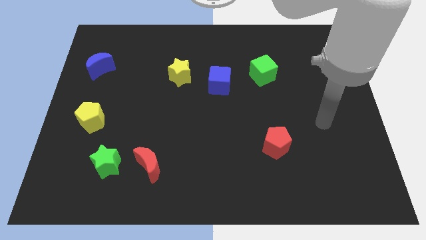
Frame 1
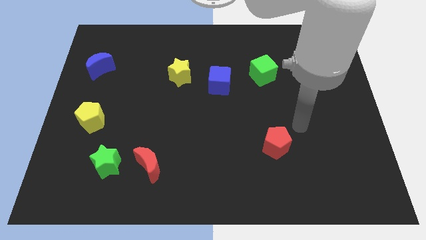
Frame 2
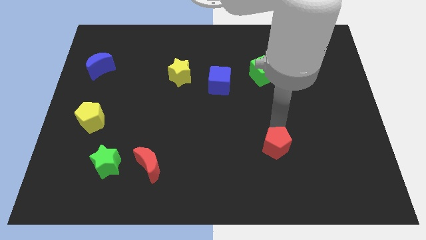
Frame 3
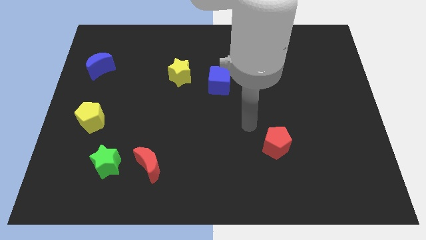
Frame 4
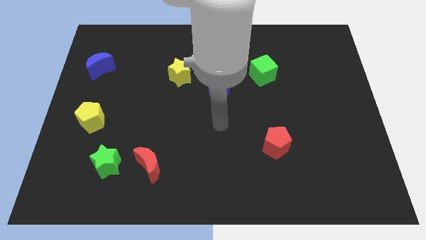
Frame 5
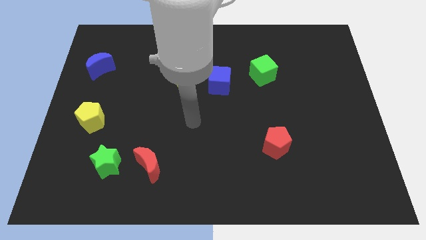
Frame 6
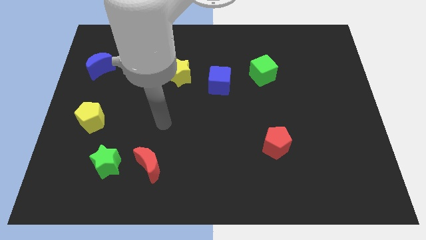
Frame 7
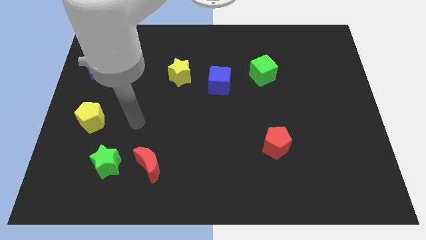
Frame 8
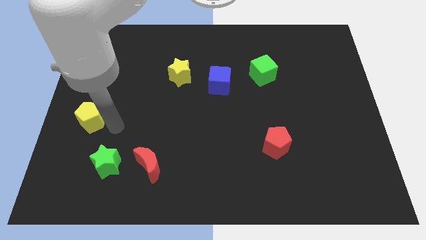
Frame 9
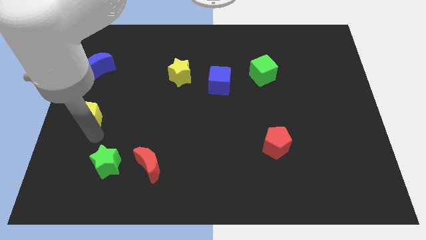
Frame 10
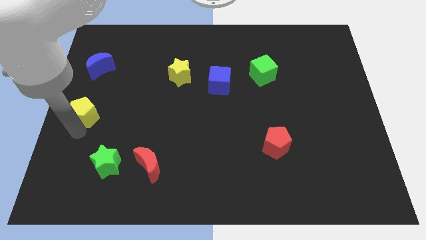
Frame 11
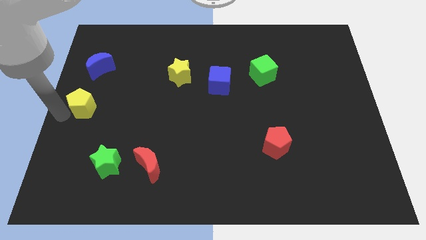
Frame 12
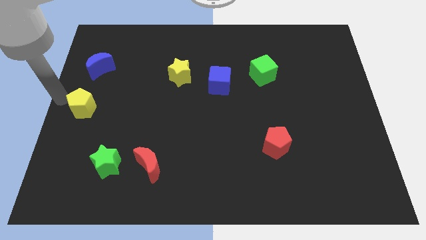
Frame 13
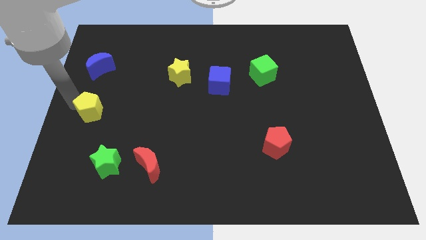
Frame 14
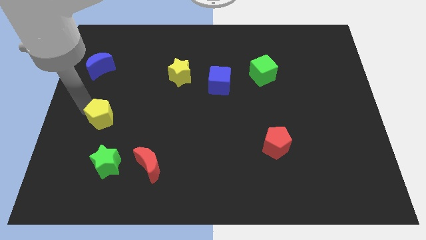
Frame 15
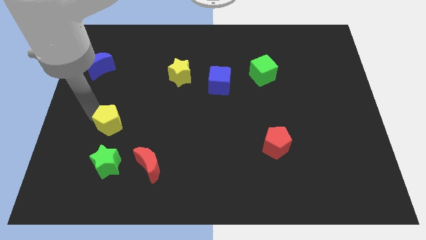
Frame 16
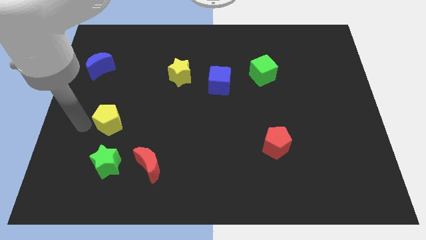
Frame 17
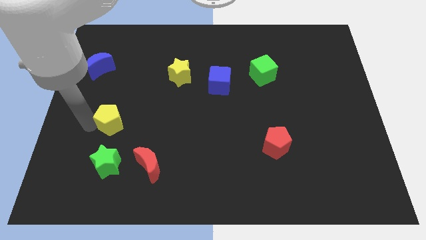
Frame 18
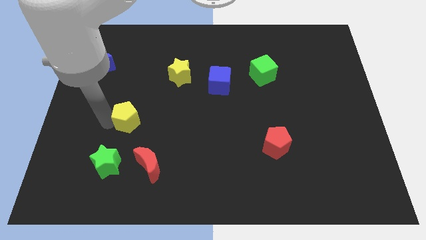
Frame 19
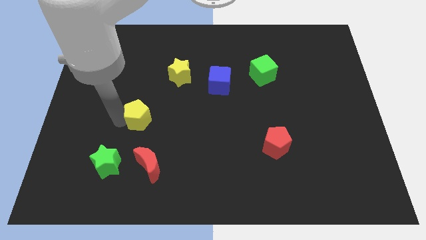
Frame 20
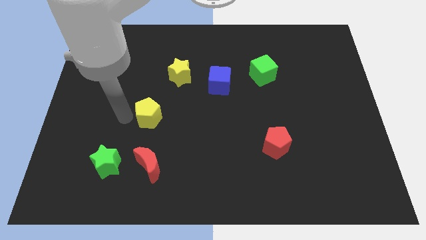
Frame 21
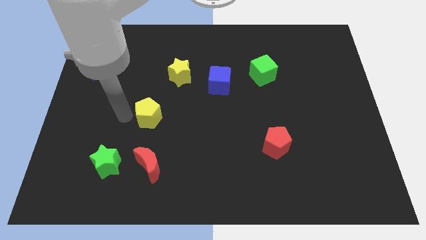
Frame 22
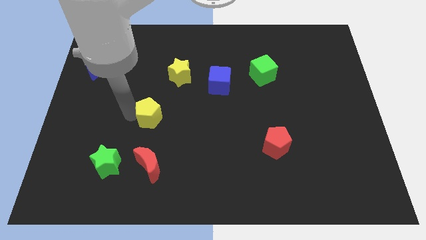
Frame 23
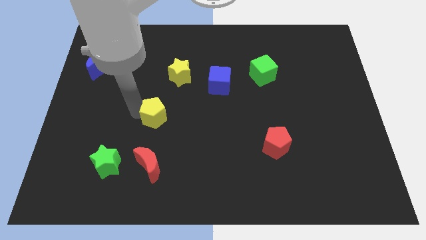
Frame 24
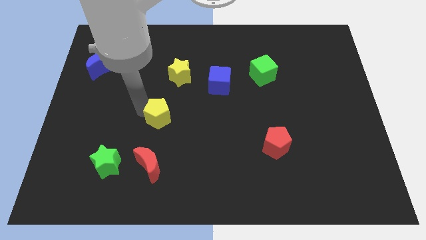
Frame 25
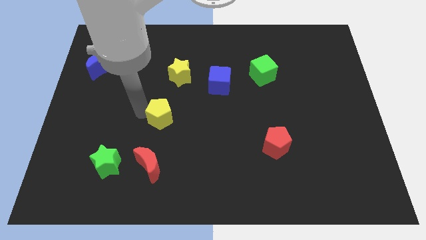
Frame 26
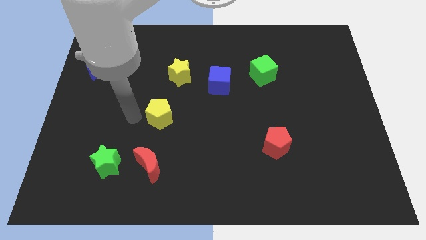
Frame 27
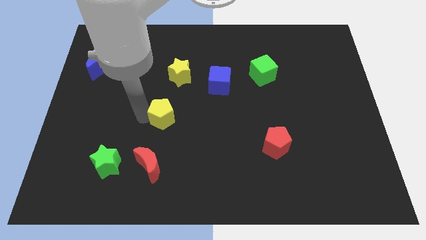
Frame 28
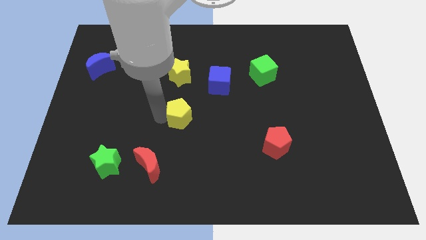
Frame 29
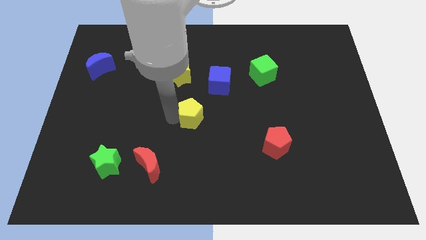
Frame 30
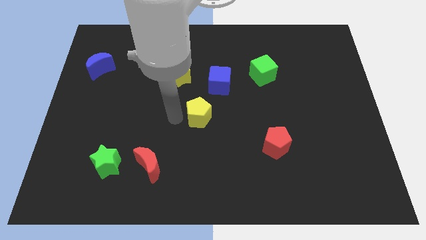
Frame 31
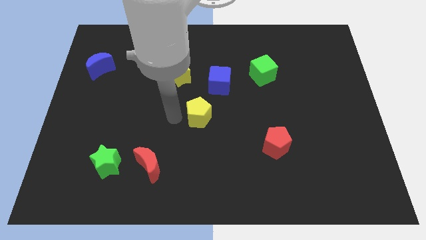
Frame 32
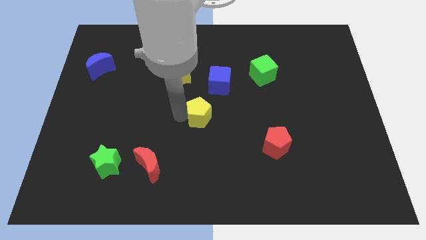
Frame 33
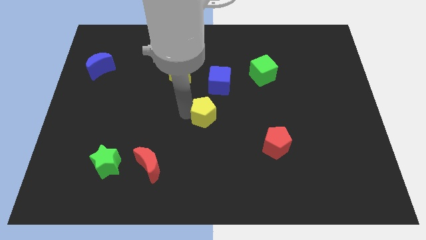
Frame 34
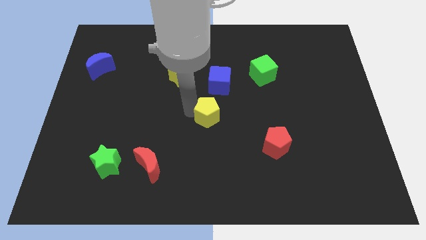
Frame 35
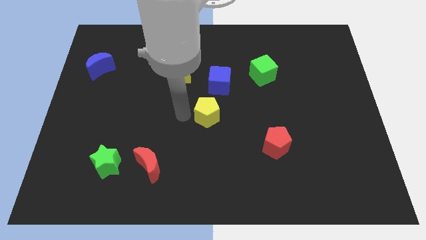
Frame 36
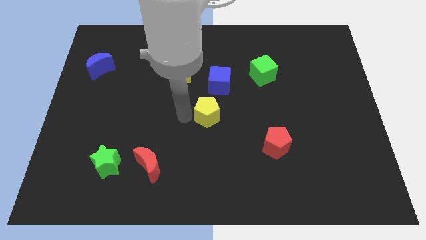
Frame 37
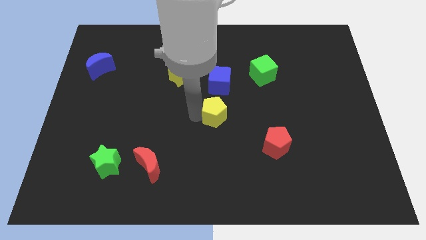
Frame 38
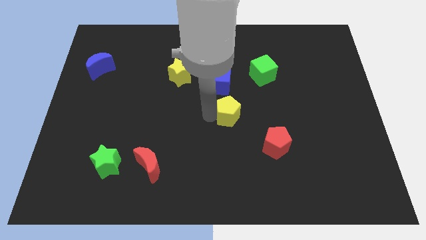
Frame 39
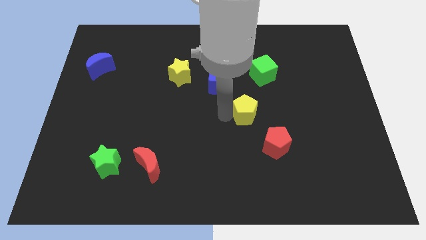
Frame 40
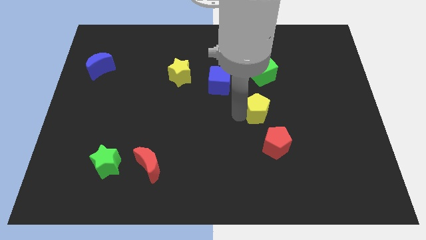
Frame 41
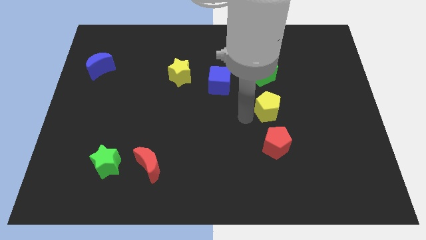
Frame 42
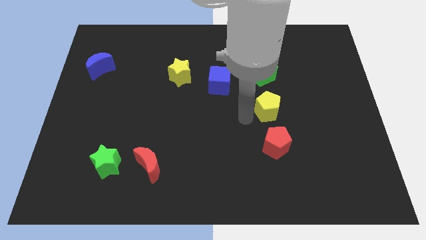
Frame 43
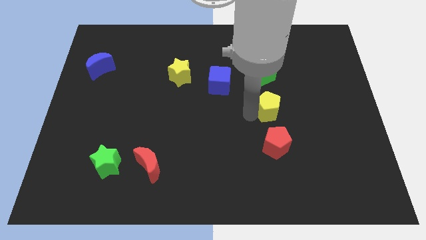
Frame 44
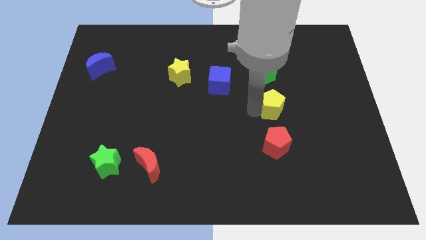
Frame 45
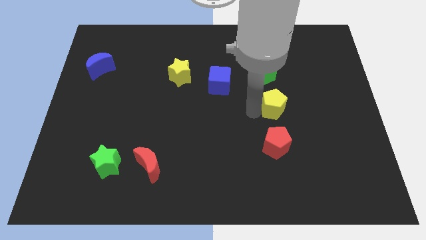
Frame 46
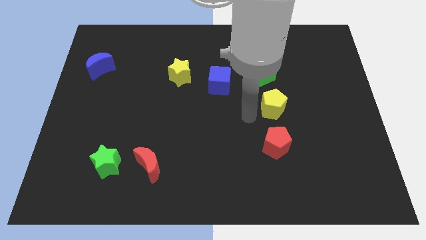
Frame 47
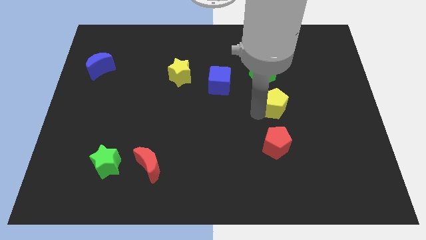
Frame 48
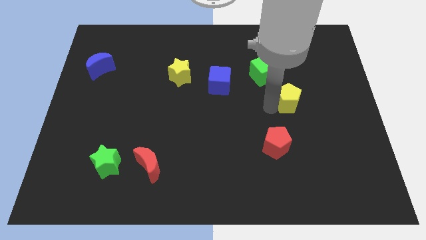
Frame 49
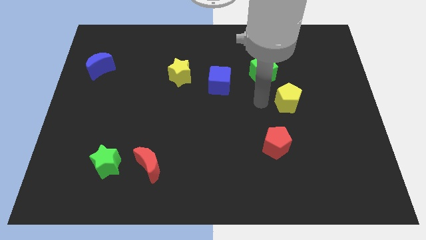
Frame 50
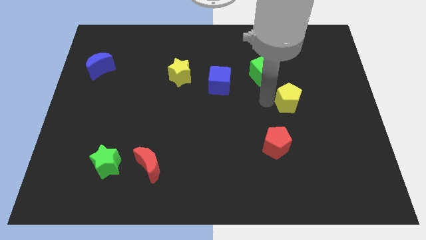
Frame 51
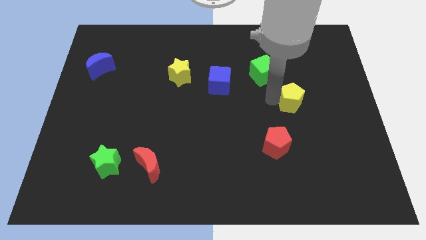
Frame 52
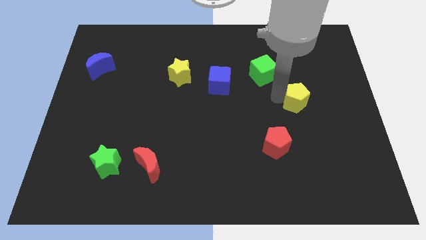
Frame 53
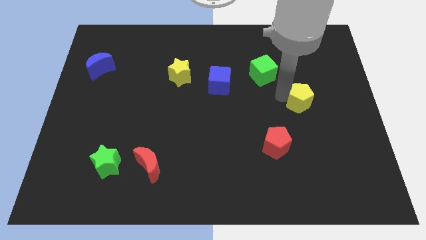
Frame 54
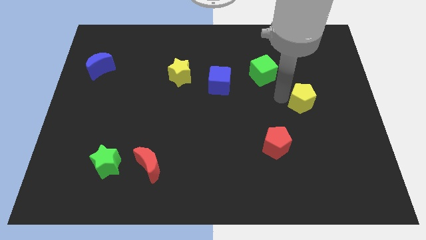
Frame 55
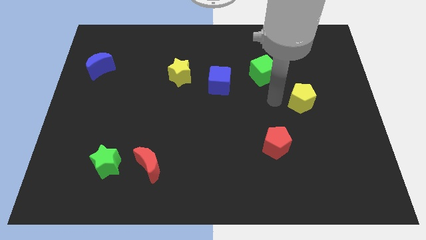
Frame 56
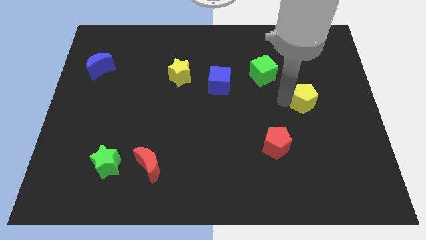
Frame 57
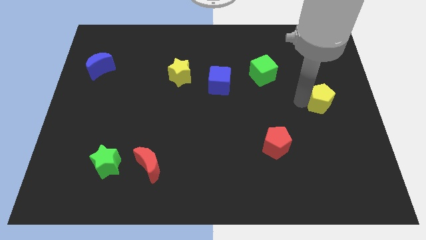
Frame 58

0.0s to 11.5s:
slide the yellow pentagon to the center right

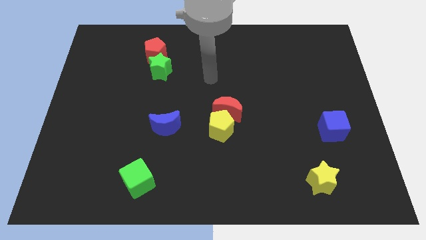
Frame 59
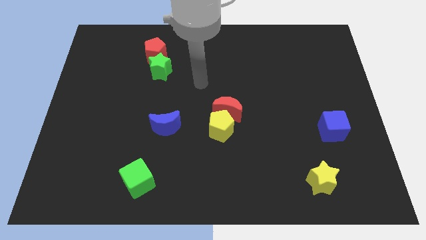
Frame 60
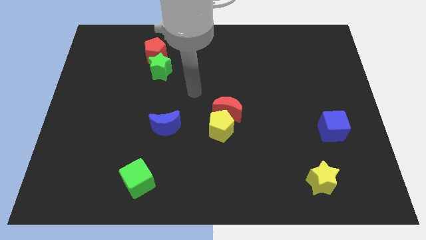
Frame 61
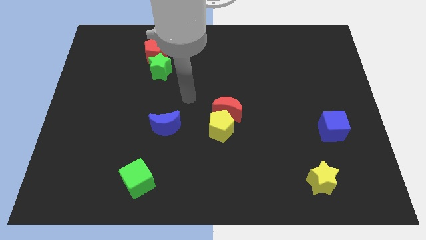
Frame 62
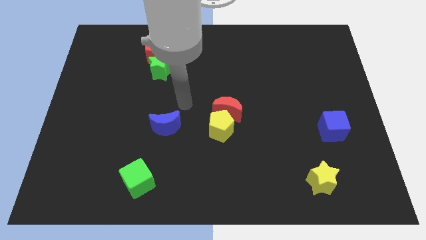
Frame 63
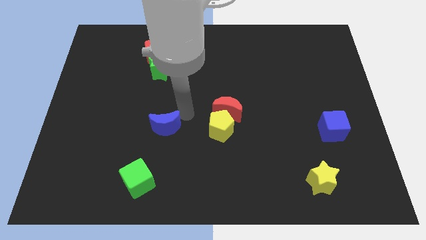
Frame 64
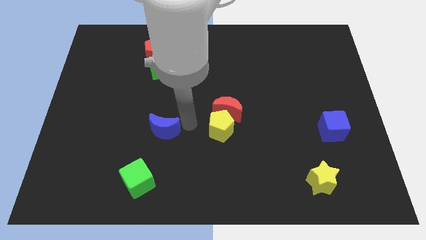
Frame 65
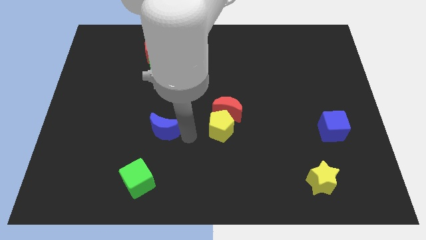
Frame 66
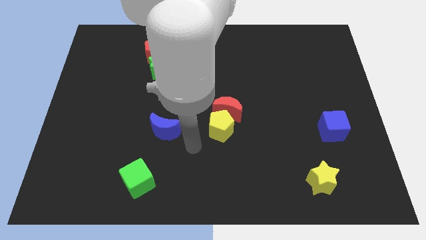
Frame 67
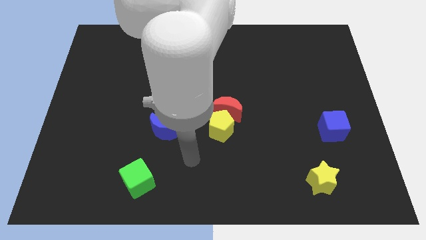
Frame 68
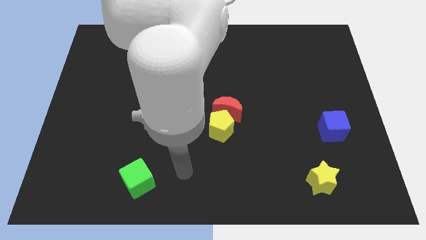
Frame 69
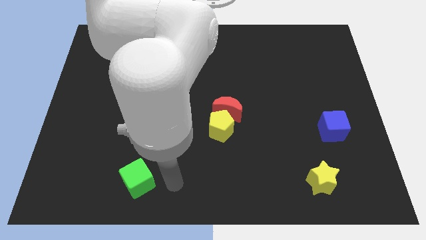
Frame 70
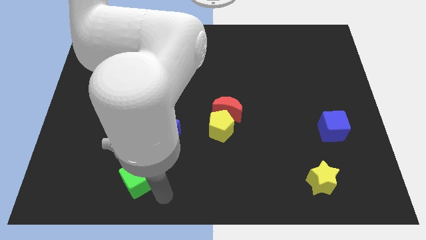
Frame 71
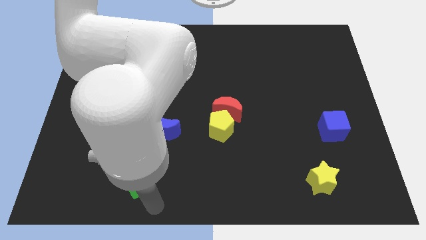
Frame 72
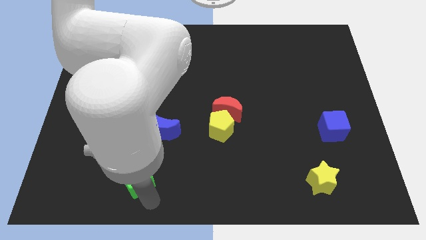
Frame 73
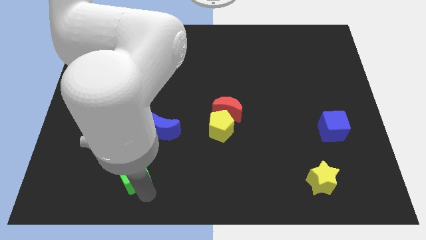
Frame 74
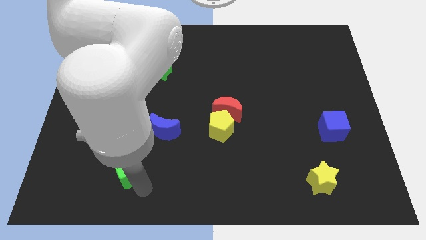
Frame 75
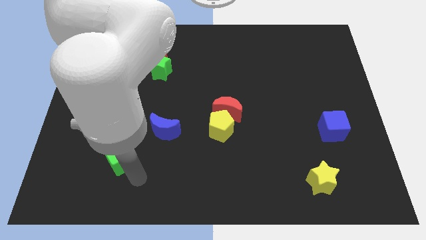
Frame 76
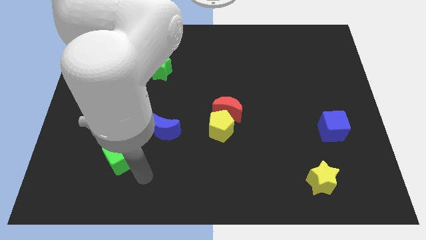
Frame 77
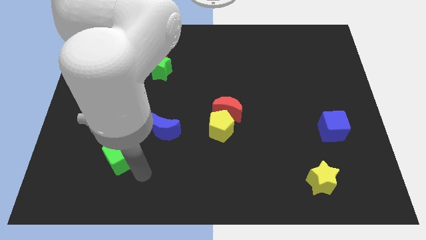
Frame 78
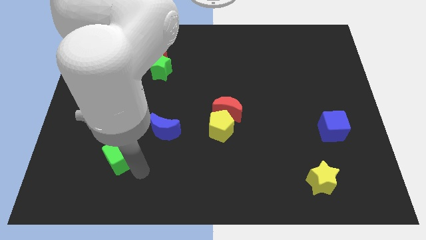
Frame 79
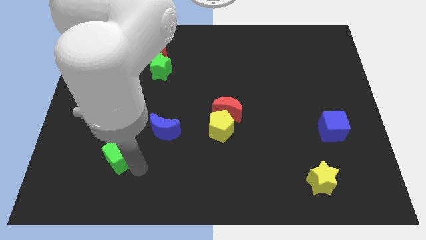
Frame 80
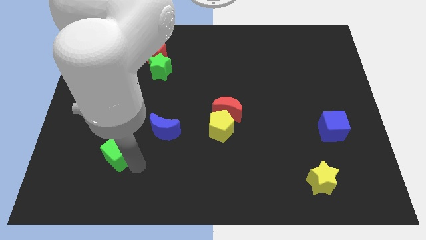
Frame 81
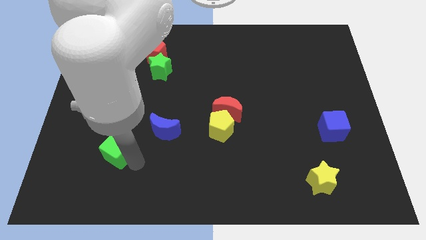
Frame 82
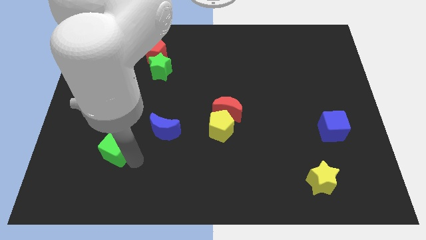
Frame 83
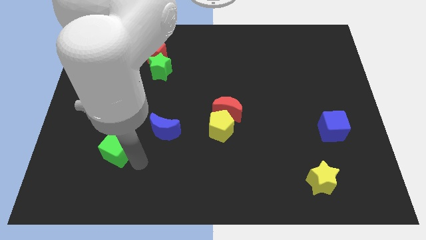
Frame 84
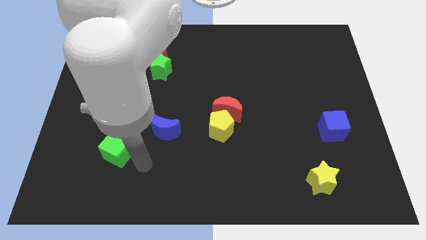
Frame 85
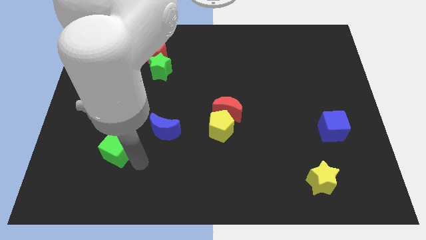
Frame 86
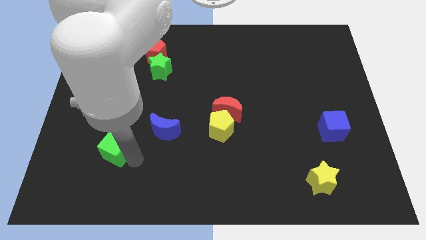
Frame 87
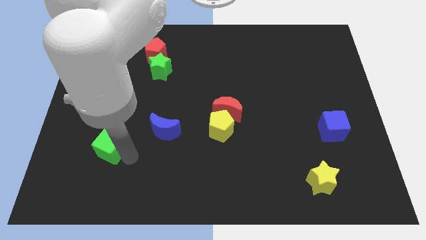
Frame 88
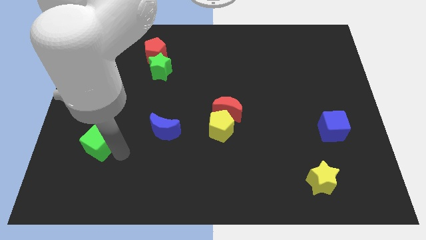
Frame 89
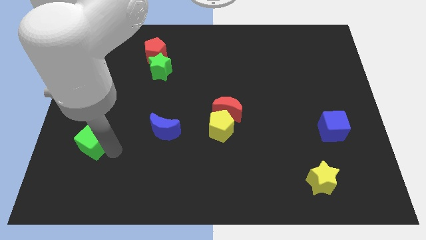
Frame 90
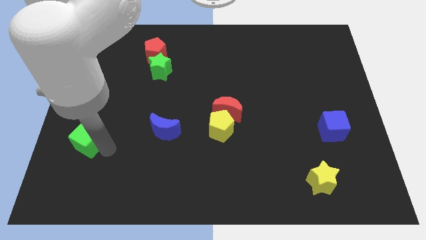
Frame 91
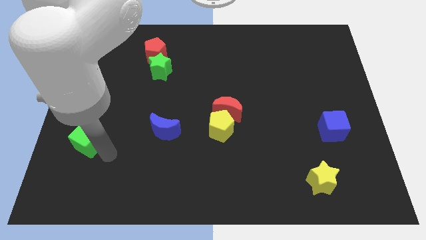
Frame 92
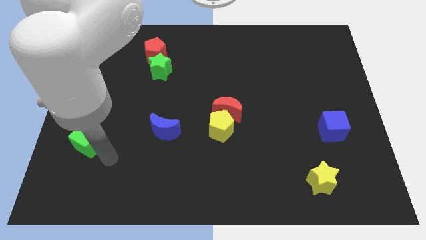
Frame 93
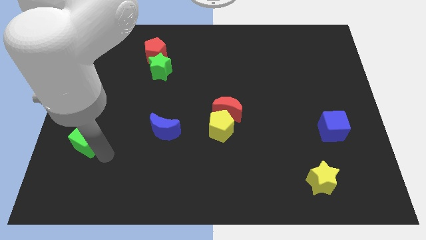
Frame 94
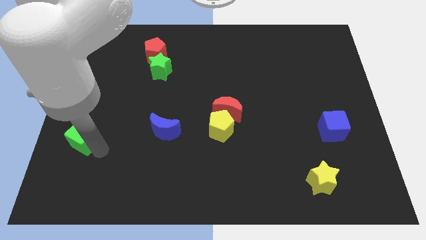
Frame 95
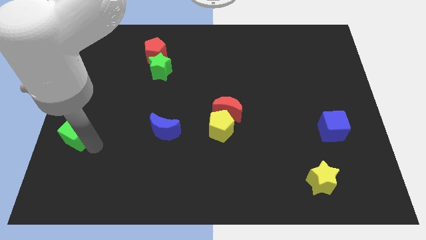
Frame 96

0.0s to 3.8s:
put the green cube to the center left
